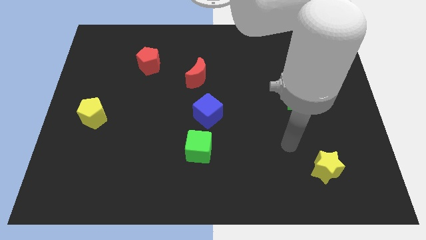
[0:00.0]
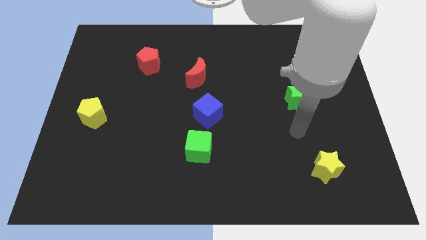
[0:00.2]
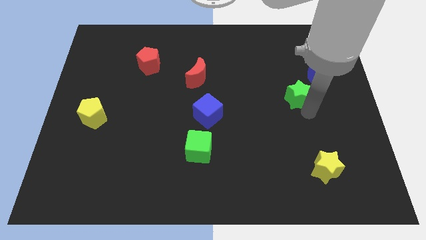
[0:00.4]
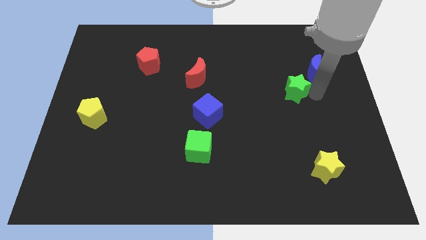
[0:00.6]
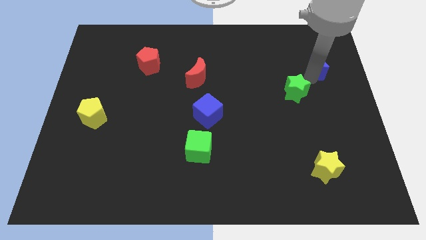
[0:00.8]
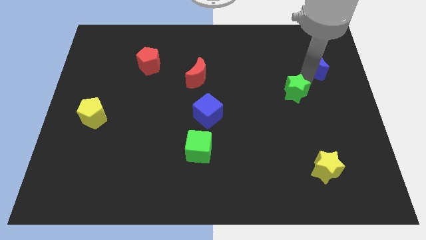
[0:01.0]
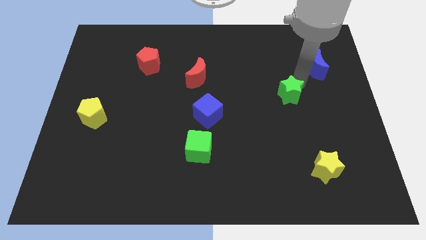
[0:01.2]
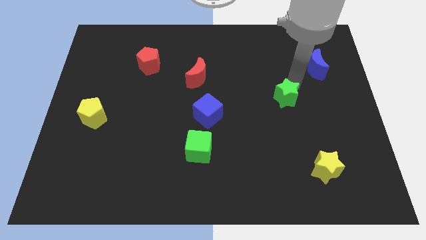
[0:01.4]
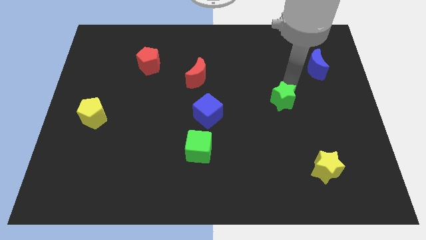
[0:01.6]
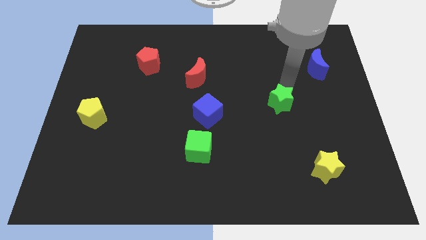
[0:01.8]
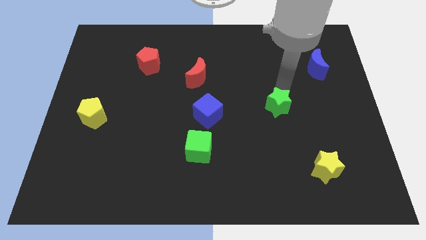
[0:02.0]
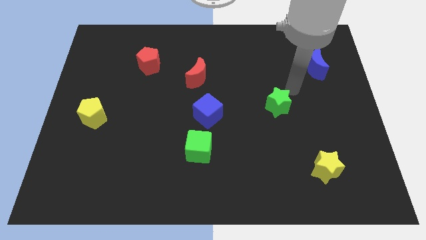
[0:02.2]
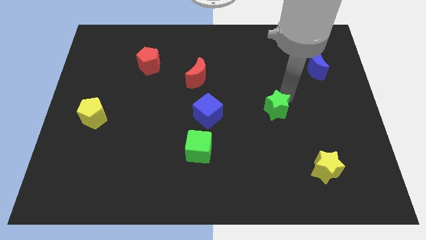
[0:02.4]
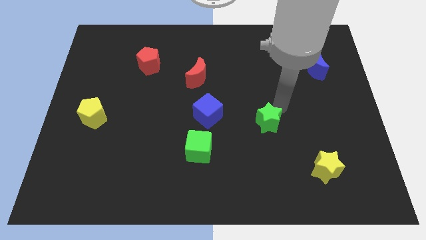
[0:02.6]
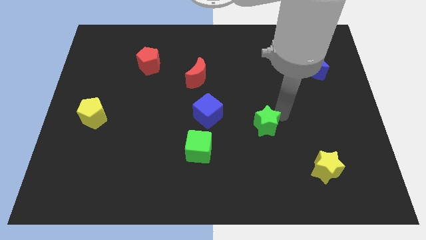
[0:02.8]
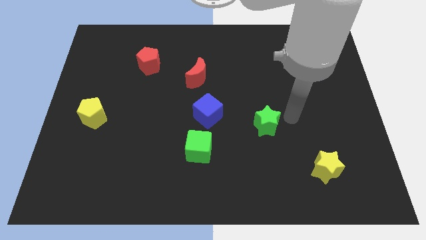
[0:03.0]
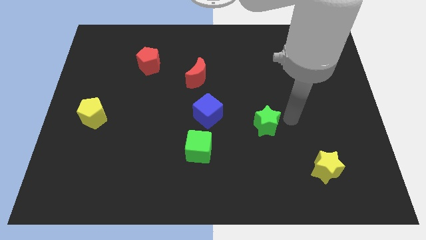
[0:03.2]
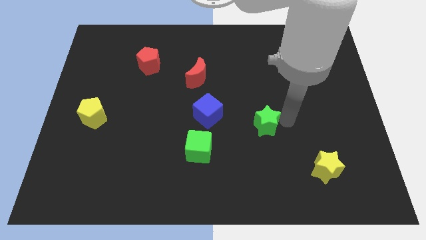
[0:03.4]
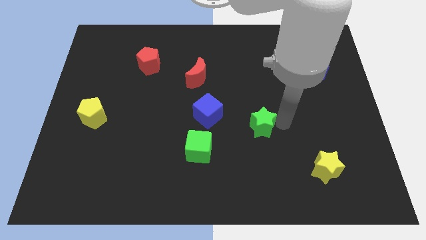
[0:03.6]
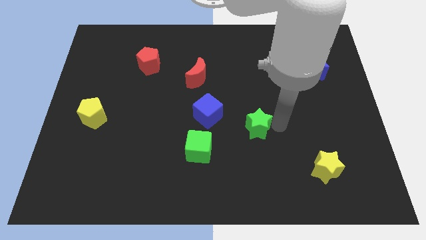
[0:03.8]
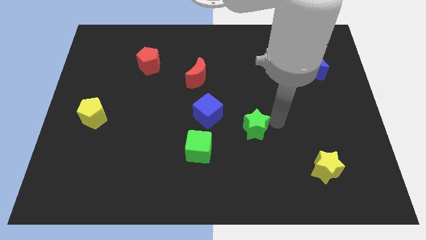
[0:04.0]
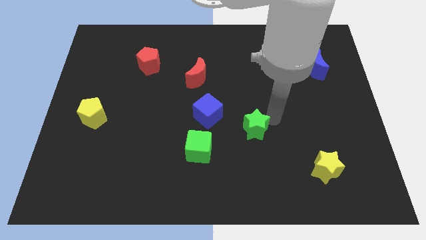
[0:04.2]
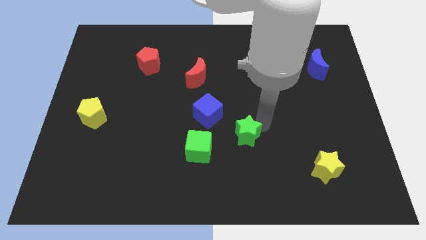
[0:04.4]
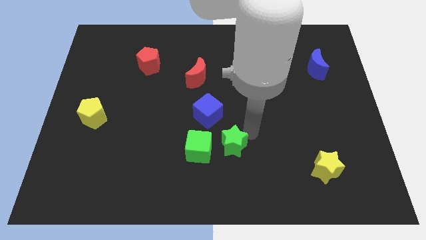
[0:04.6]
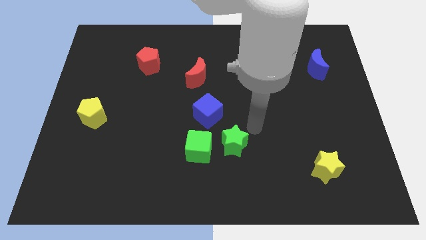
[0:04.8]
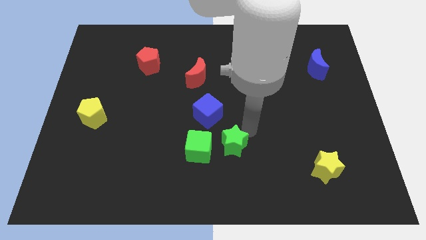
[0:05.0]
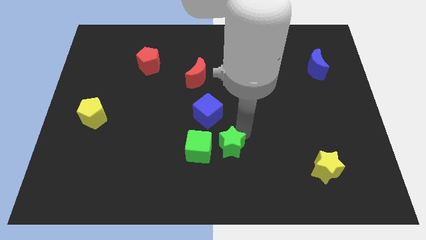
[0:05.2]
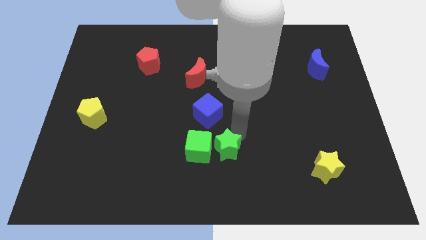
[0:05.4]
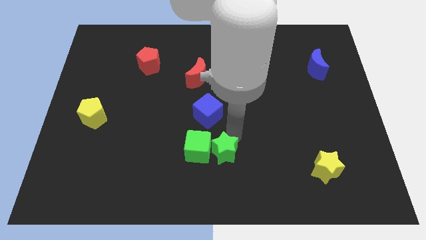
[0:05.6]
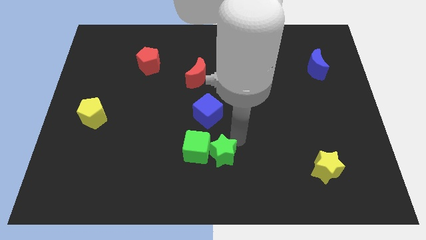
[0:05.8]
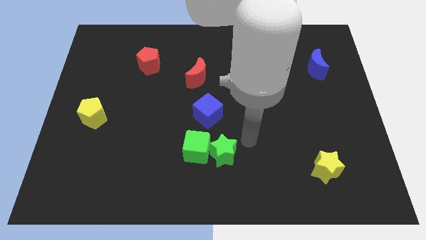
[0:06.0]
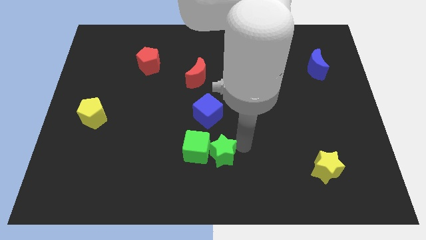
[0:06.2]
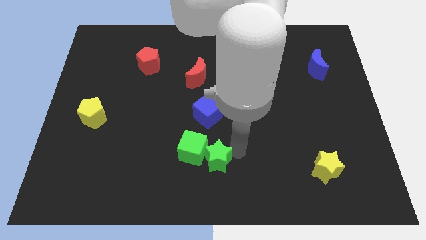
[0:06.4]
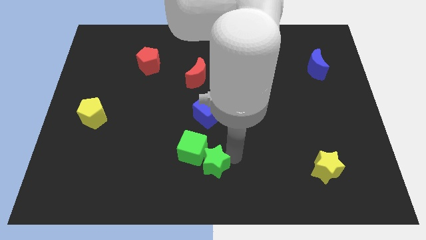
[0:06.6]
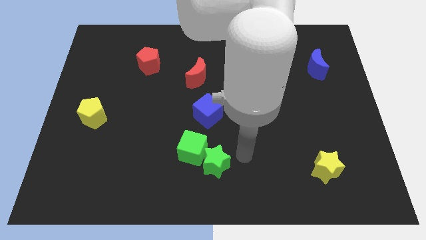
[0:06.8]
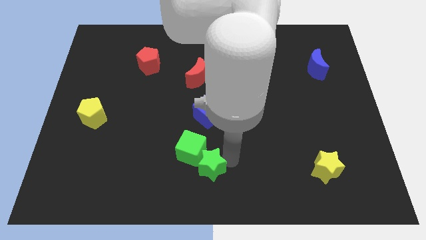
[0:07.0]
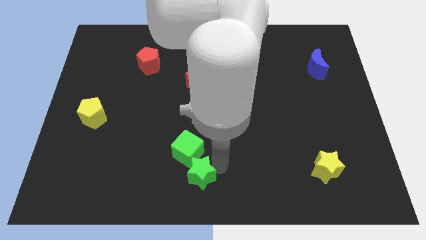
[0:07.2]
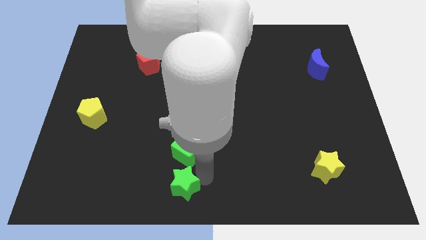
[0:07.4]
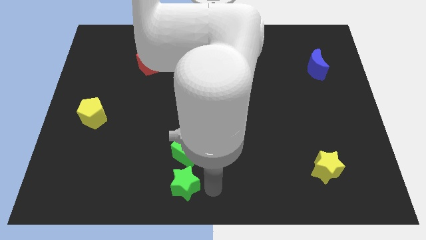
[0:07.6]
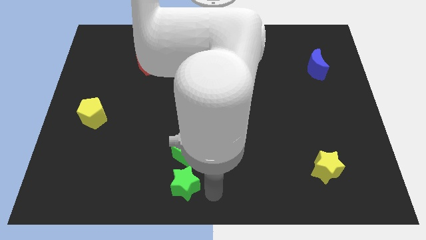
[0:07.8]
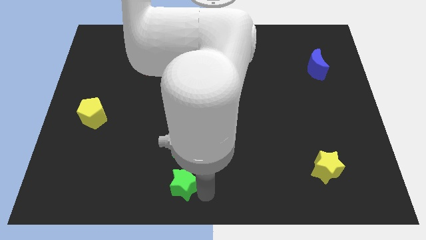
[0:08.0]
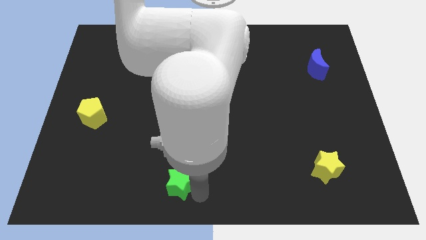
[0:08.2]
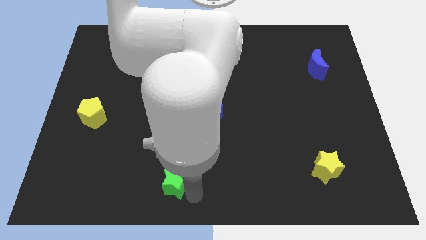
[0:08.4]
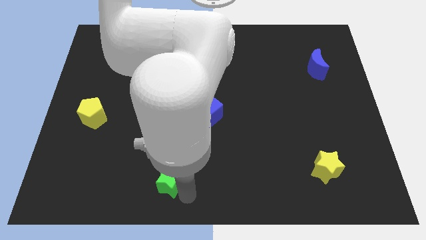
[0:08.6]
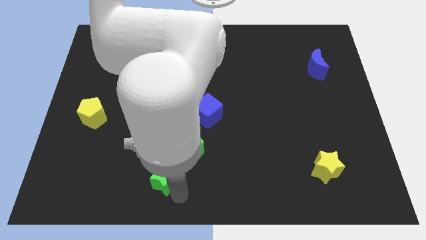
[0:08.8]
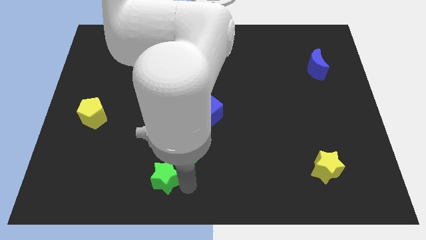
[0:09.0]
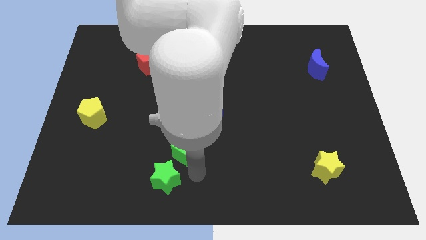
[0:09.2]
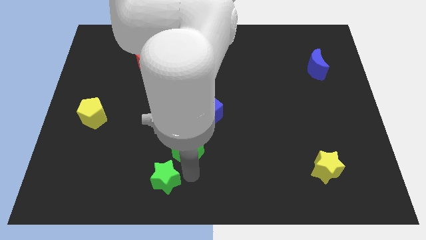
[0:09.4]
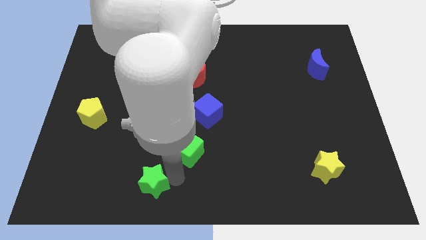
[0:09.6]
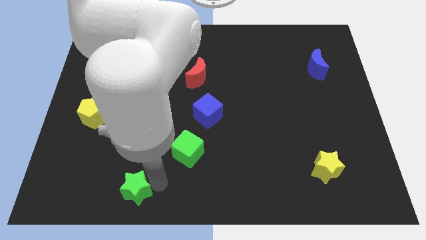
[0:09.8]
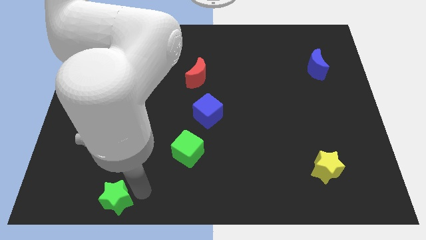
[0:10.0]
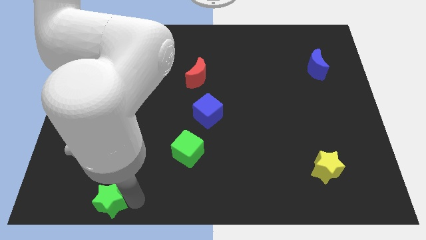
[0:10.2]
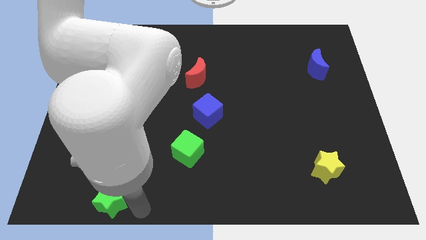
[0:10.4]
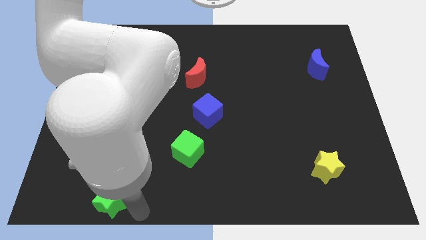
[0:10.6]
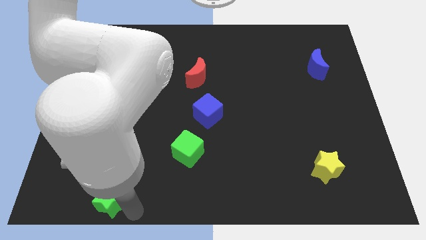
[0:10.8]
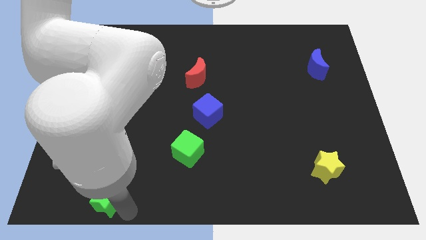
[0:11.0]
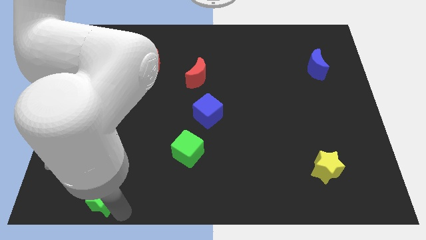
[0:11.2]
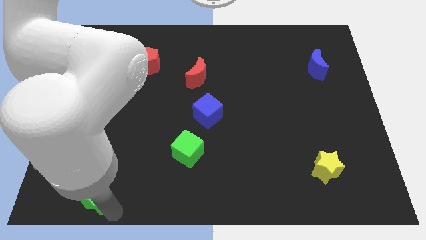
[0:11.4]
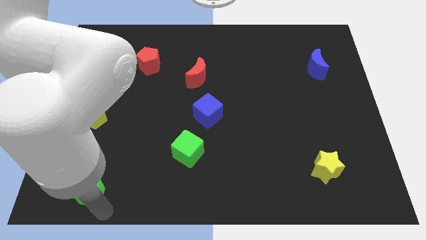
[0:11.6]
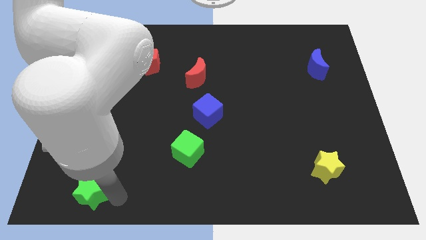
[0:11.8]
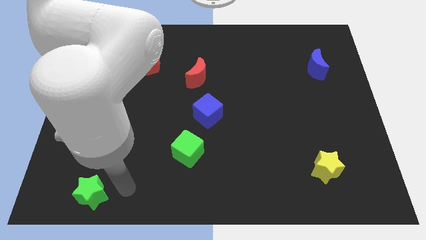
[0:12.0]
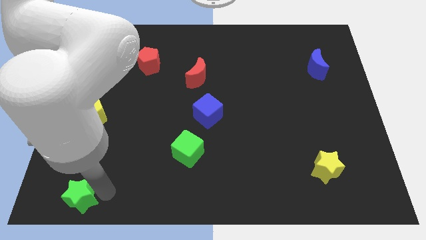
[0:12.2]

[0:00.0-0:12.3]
push the green star to the bottom left of the board

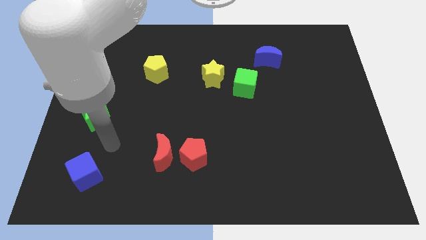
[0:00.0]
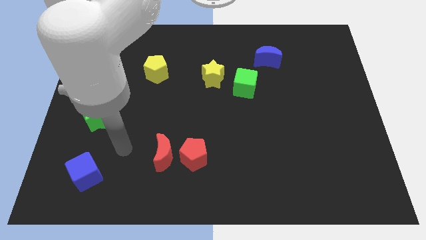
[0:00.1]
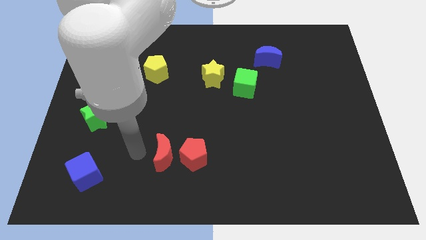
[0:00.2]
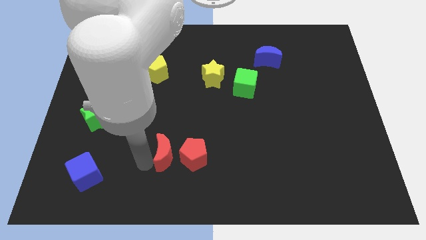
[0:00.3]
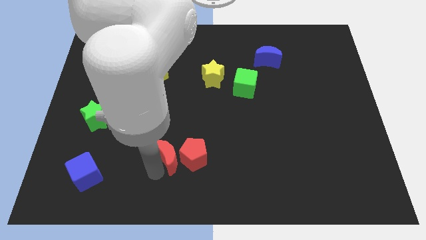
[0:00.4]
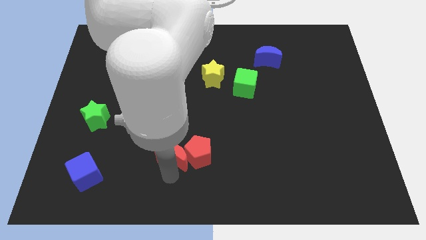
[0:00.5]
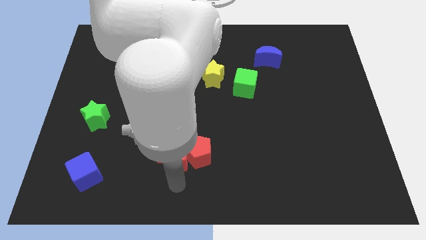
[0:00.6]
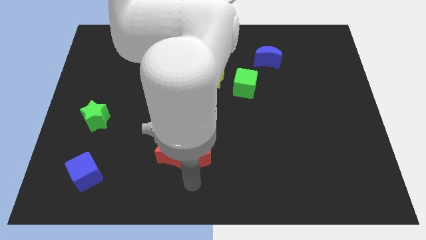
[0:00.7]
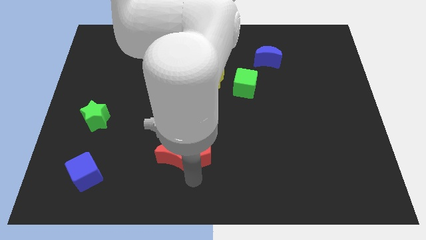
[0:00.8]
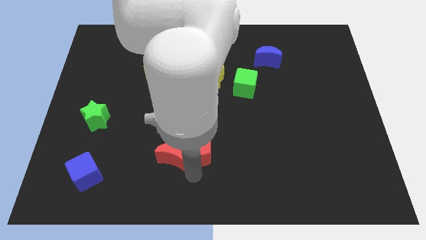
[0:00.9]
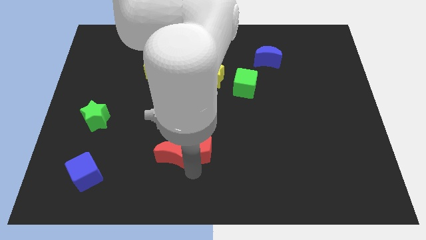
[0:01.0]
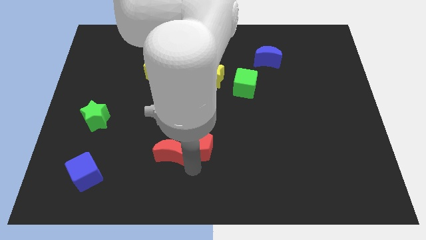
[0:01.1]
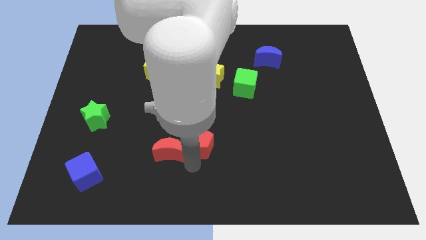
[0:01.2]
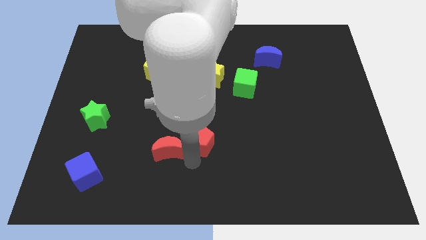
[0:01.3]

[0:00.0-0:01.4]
put the red pentagon to the middle of the board
